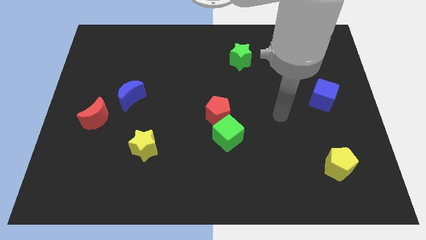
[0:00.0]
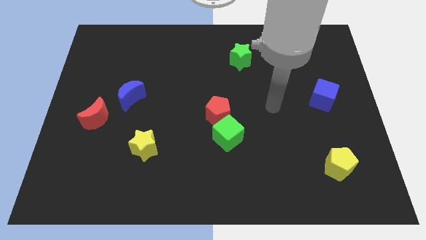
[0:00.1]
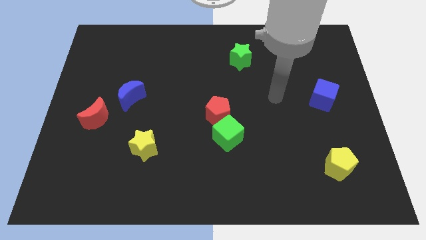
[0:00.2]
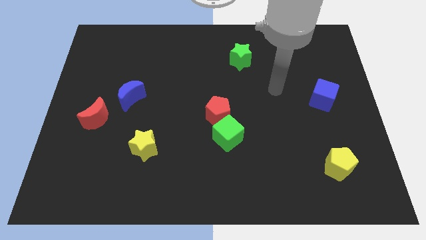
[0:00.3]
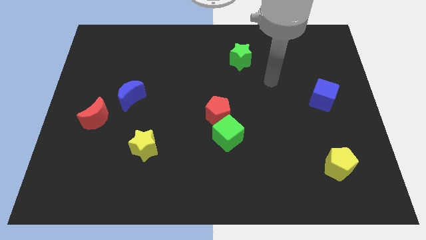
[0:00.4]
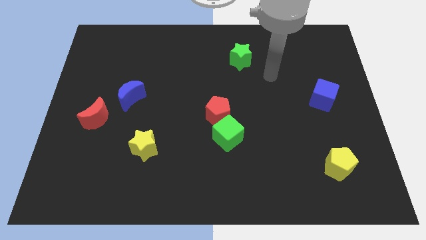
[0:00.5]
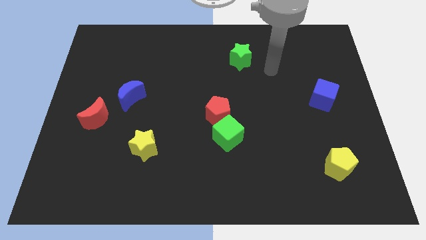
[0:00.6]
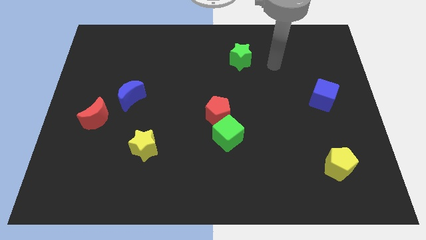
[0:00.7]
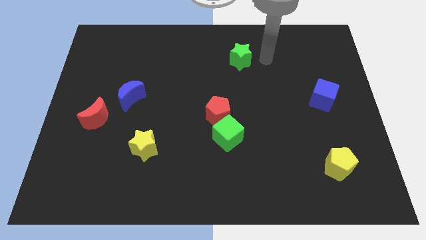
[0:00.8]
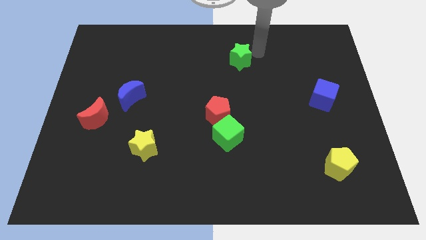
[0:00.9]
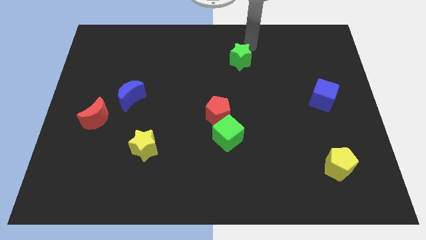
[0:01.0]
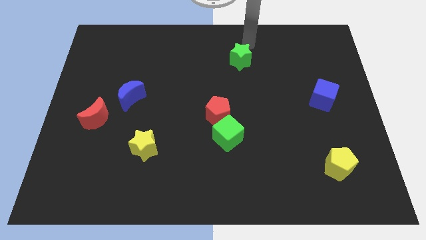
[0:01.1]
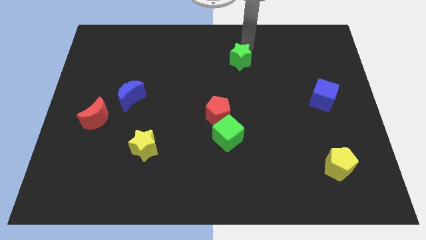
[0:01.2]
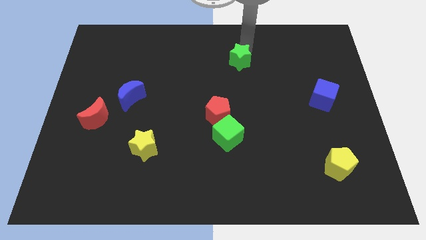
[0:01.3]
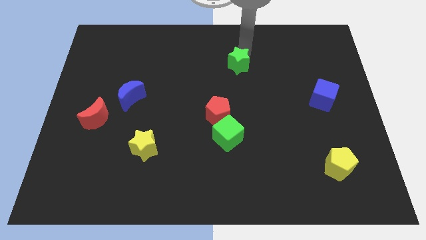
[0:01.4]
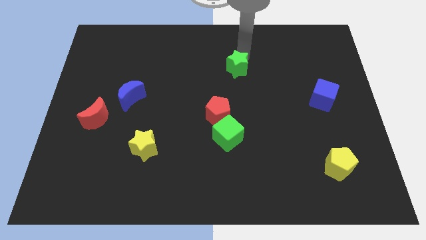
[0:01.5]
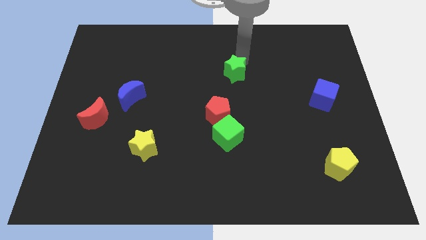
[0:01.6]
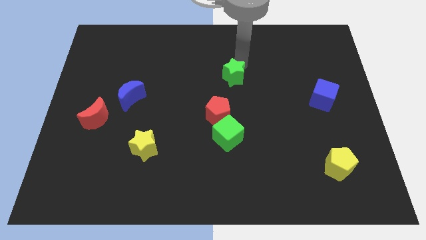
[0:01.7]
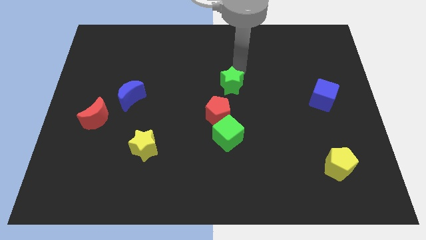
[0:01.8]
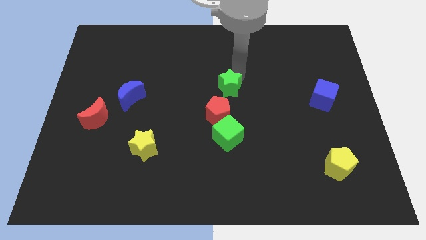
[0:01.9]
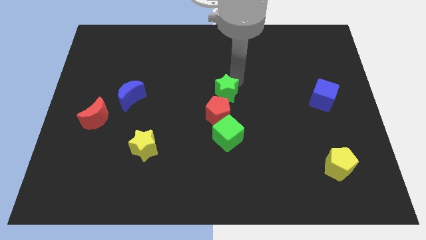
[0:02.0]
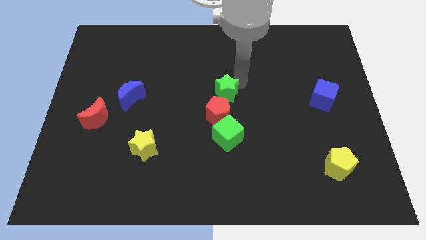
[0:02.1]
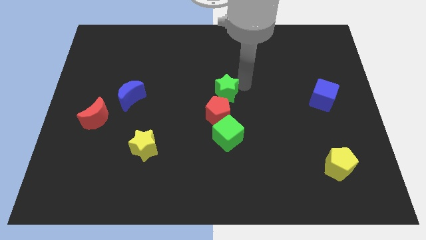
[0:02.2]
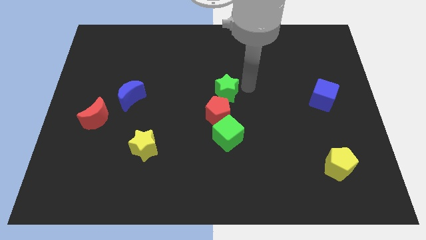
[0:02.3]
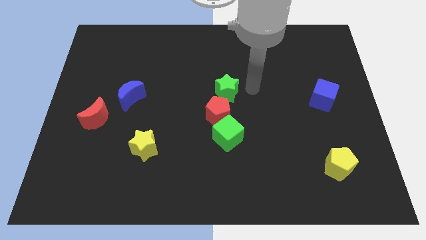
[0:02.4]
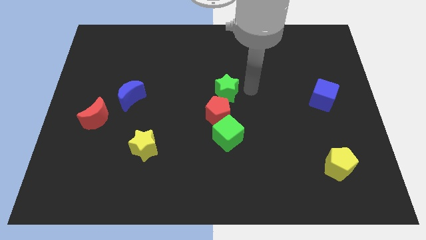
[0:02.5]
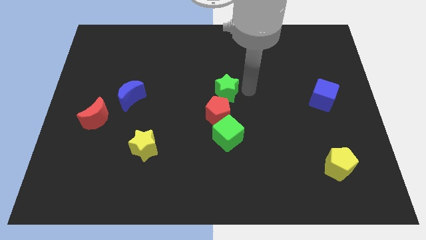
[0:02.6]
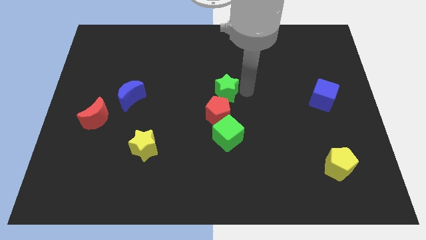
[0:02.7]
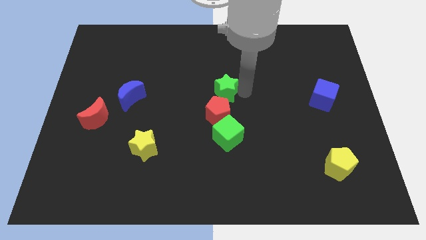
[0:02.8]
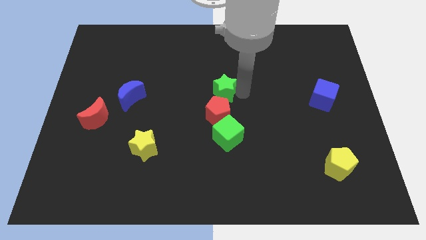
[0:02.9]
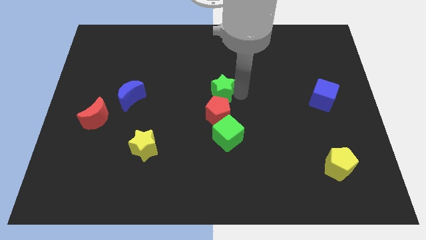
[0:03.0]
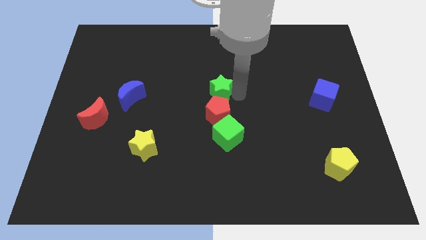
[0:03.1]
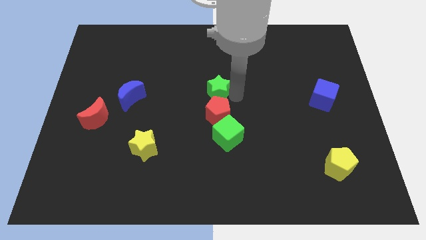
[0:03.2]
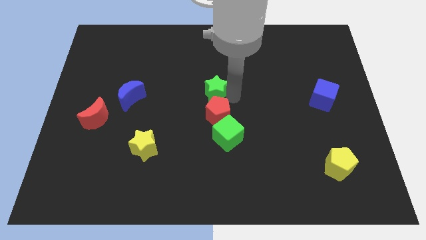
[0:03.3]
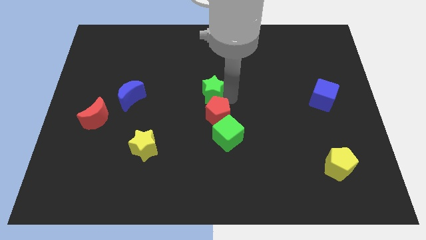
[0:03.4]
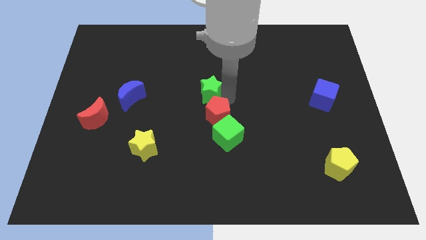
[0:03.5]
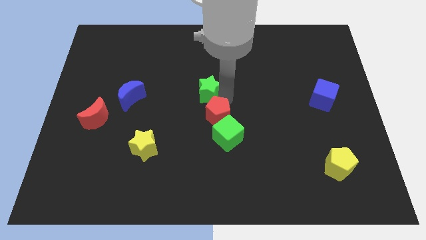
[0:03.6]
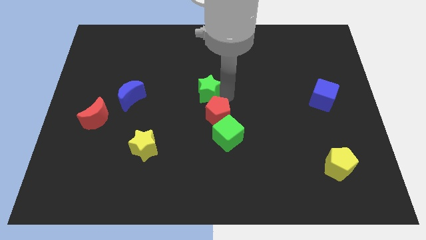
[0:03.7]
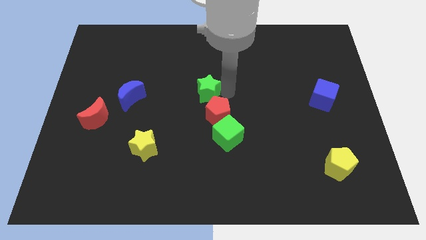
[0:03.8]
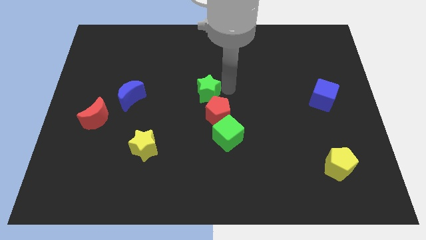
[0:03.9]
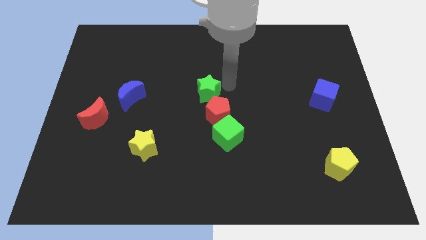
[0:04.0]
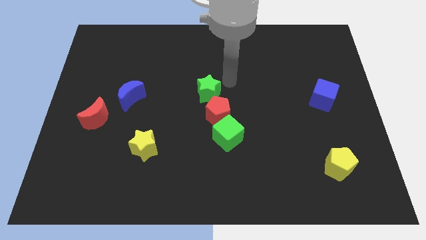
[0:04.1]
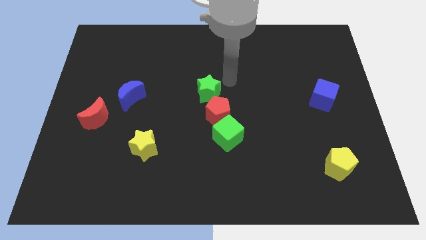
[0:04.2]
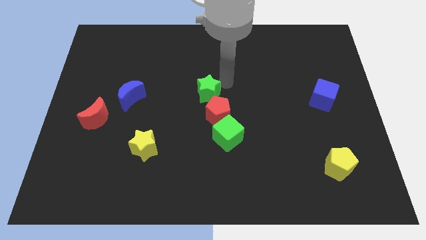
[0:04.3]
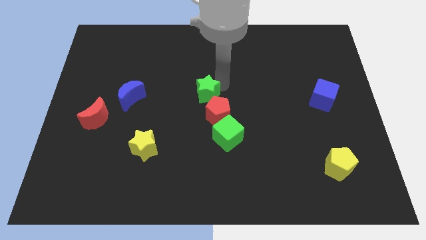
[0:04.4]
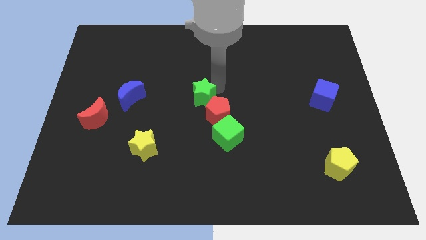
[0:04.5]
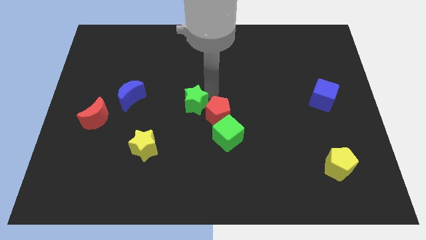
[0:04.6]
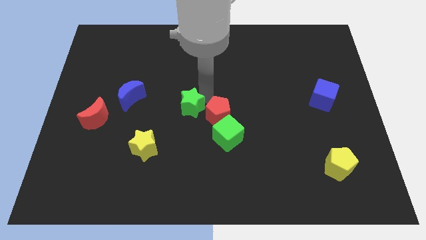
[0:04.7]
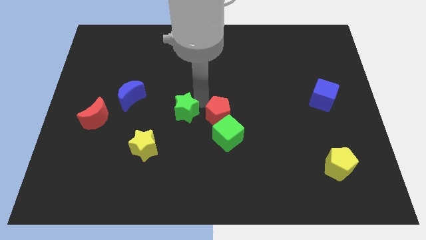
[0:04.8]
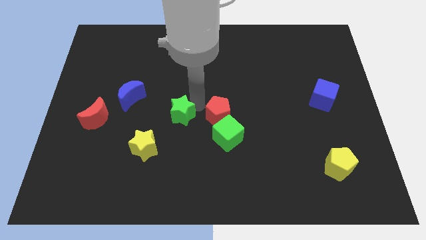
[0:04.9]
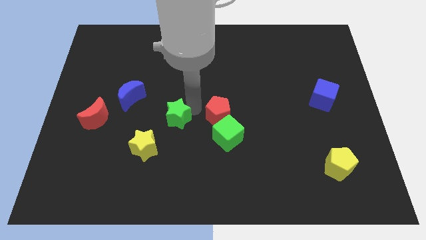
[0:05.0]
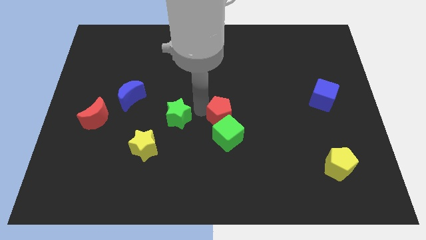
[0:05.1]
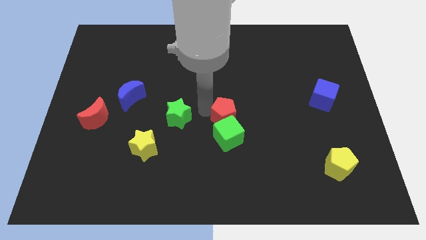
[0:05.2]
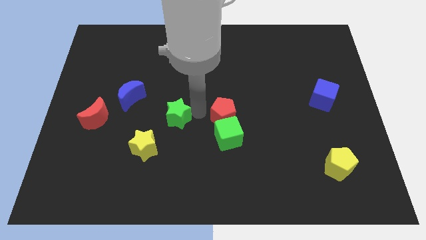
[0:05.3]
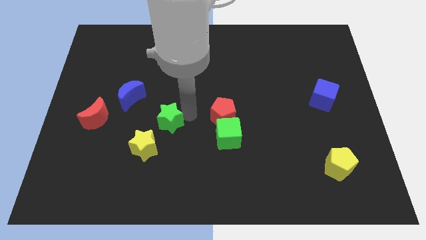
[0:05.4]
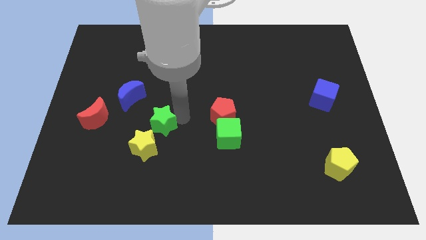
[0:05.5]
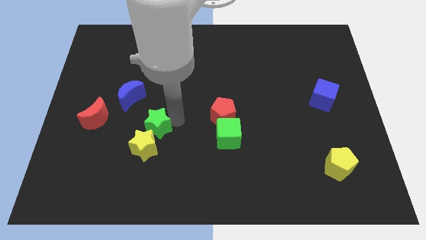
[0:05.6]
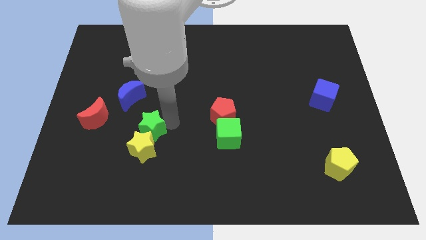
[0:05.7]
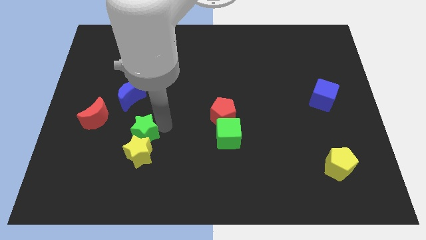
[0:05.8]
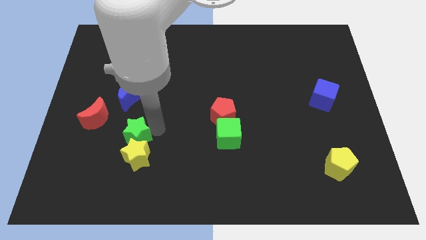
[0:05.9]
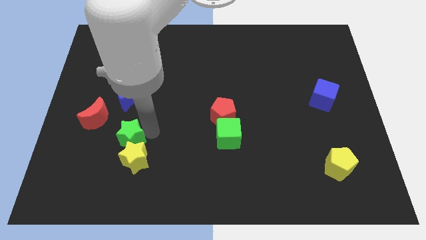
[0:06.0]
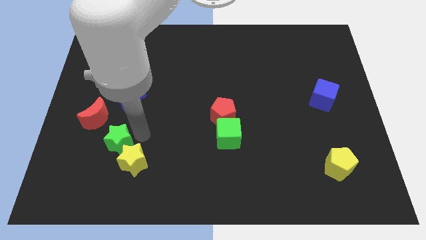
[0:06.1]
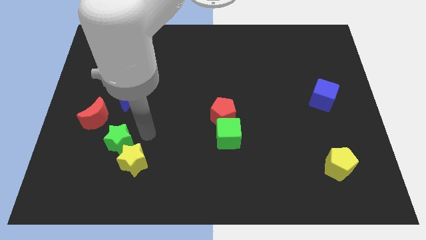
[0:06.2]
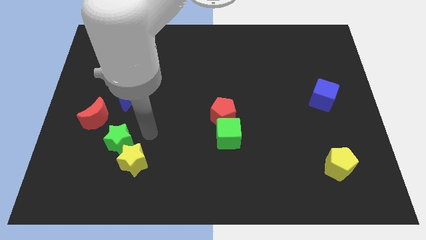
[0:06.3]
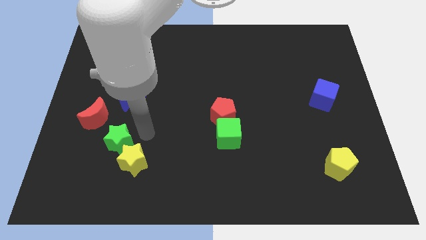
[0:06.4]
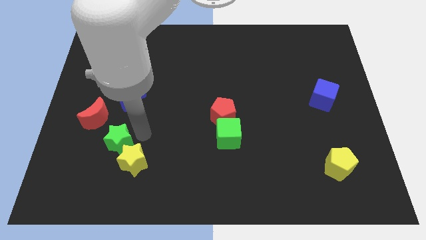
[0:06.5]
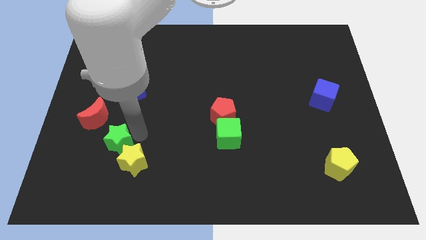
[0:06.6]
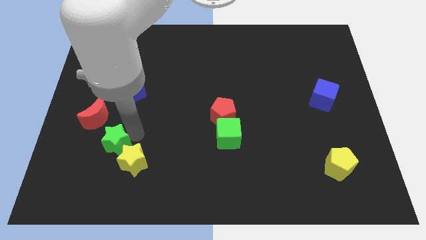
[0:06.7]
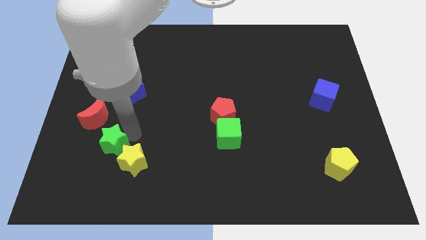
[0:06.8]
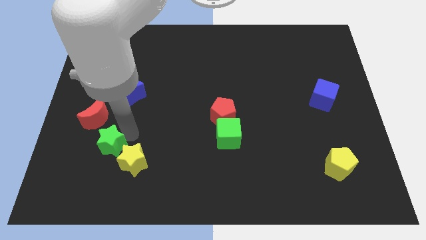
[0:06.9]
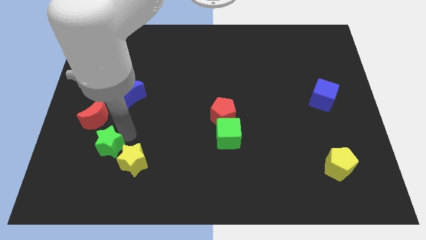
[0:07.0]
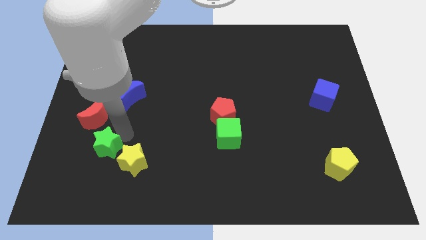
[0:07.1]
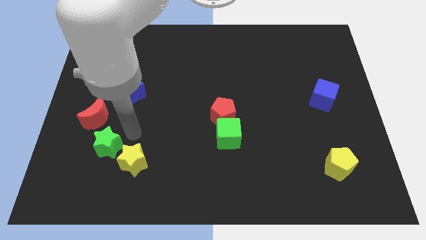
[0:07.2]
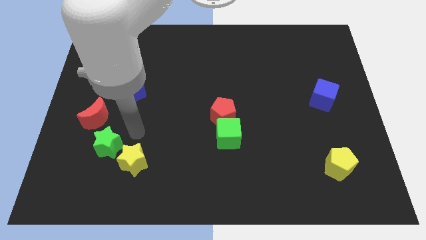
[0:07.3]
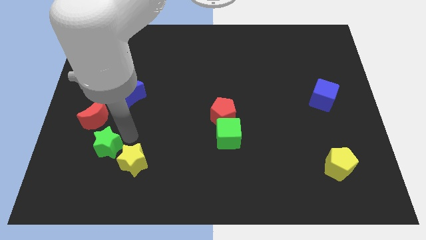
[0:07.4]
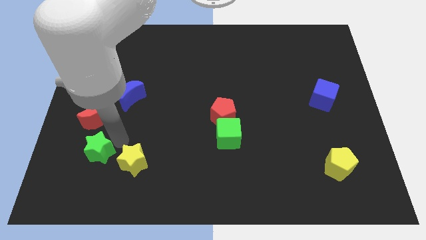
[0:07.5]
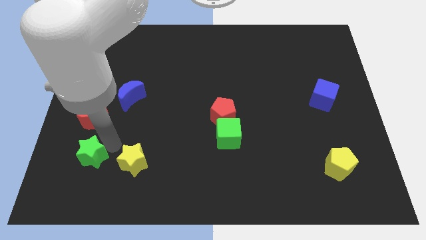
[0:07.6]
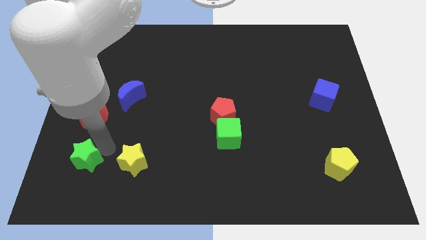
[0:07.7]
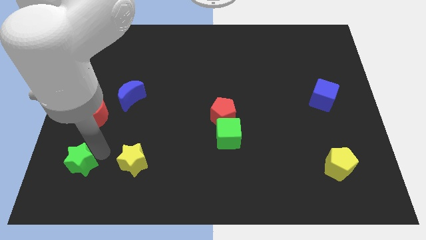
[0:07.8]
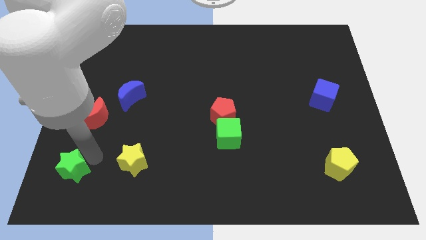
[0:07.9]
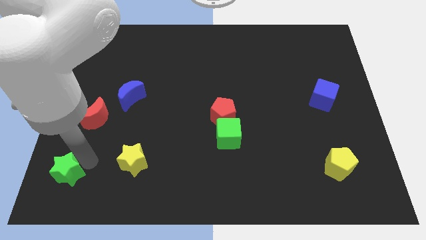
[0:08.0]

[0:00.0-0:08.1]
move the green star to the bottom left
